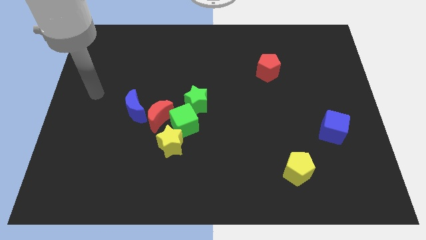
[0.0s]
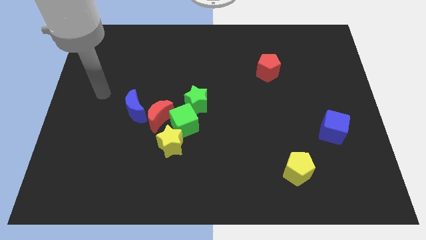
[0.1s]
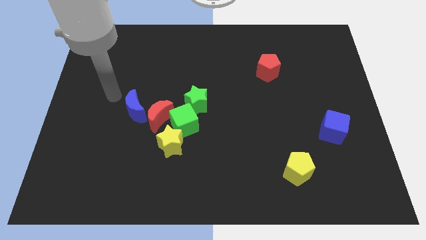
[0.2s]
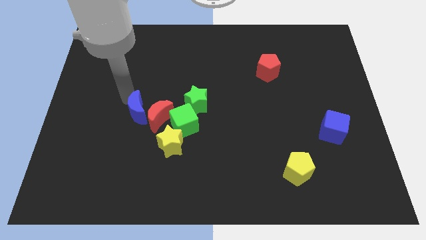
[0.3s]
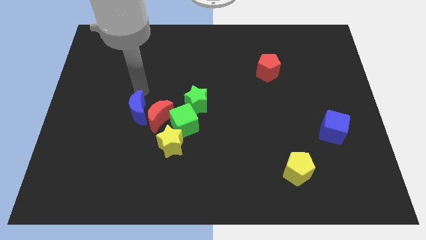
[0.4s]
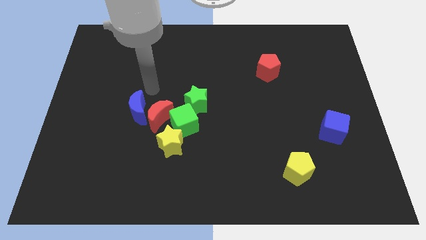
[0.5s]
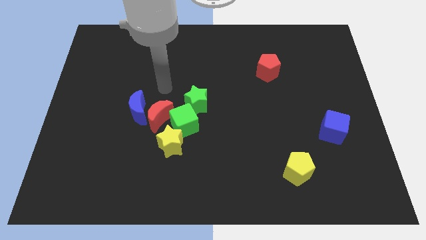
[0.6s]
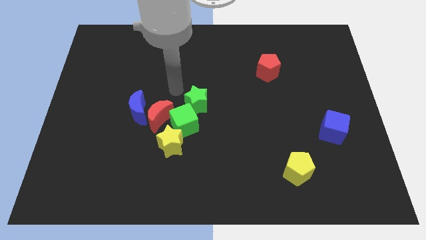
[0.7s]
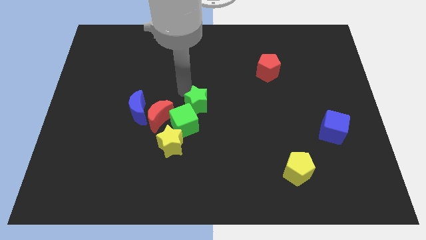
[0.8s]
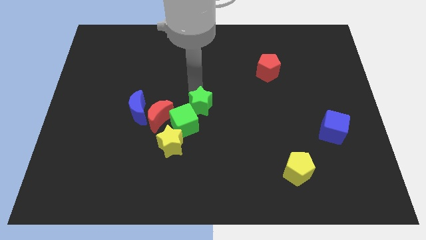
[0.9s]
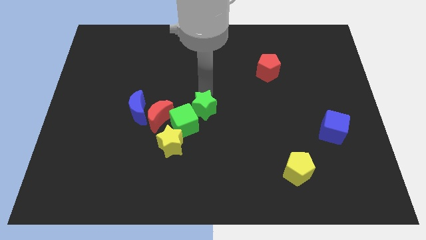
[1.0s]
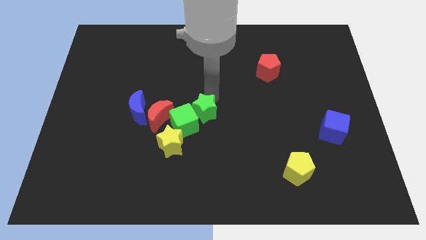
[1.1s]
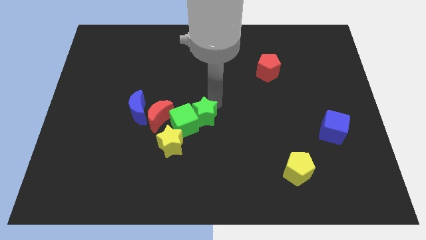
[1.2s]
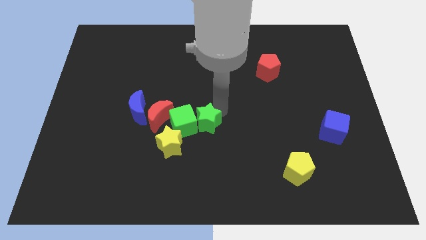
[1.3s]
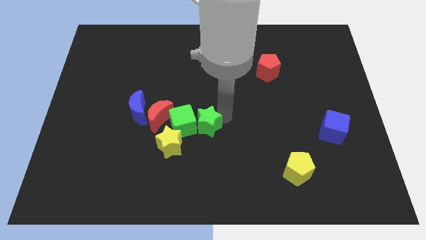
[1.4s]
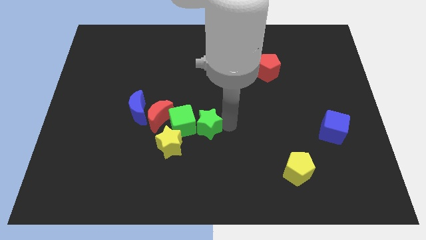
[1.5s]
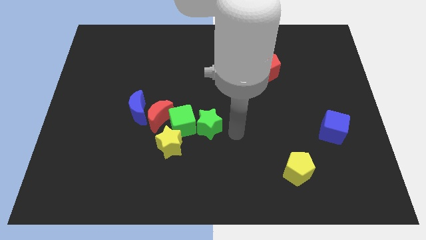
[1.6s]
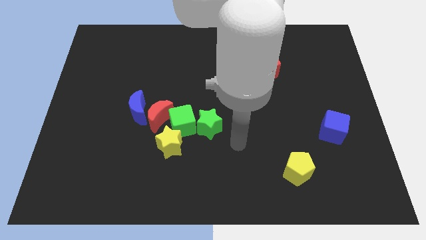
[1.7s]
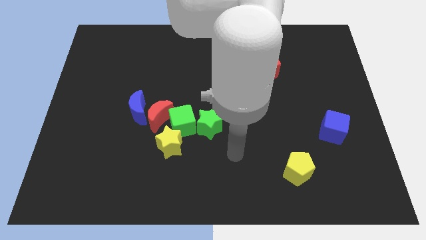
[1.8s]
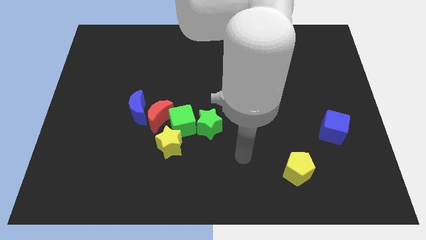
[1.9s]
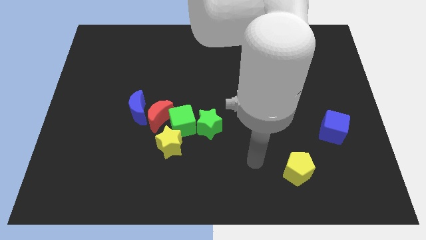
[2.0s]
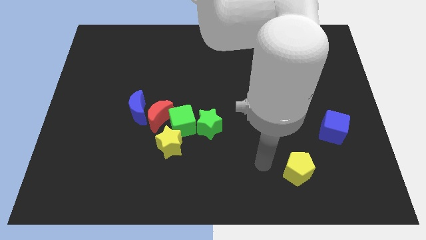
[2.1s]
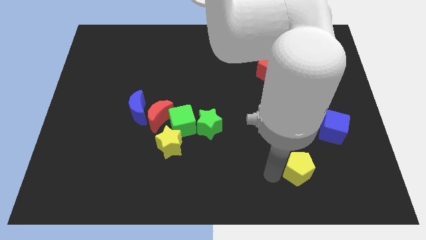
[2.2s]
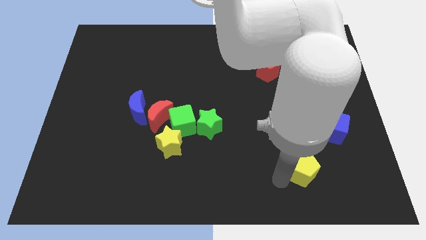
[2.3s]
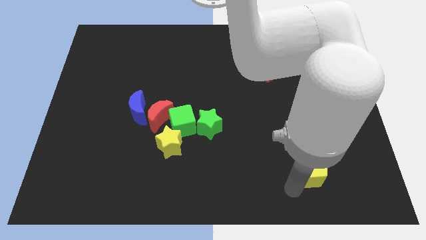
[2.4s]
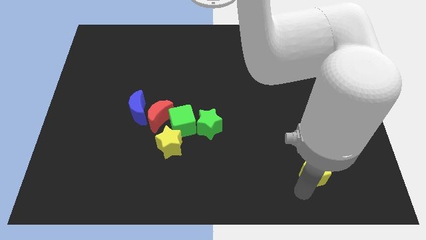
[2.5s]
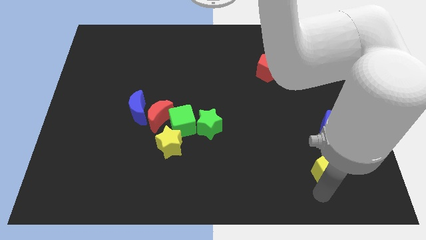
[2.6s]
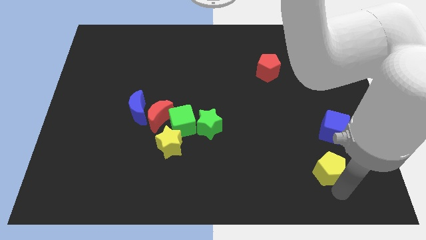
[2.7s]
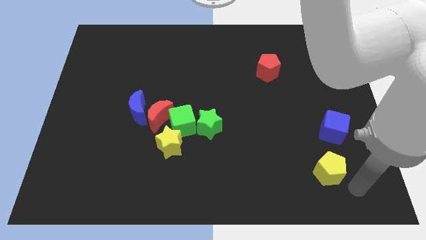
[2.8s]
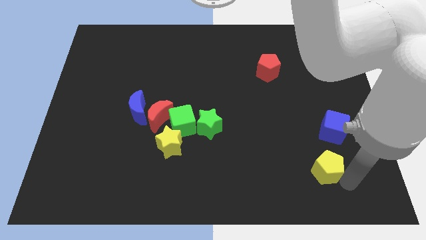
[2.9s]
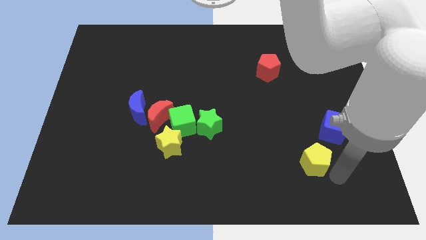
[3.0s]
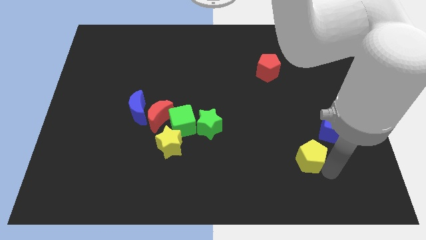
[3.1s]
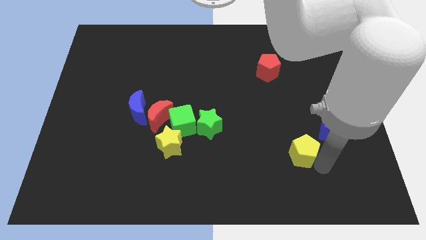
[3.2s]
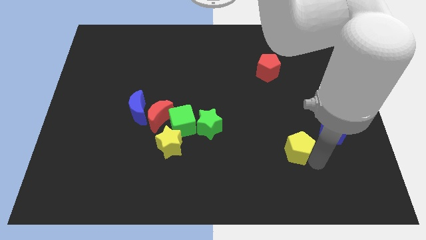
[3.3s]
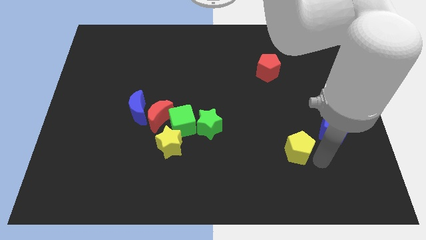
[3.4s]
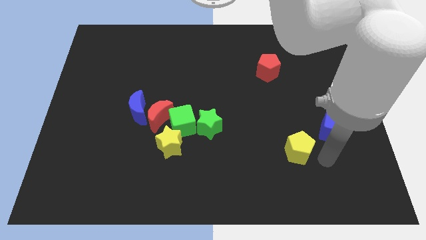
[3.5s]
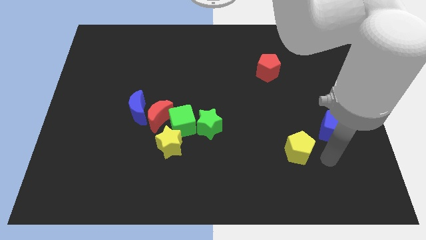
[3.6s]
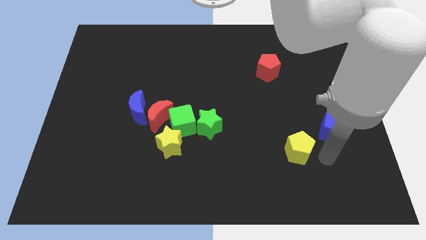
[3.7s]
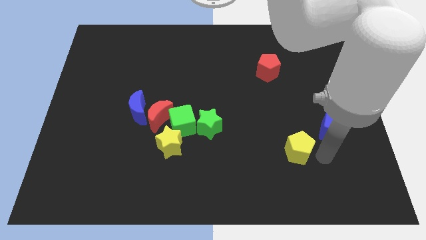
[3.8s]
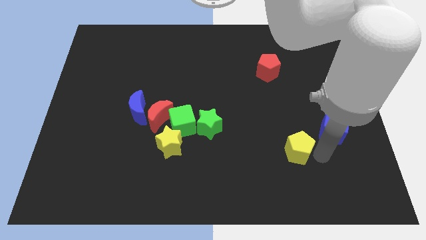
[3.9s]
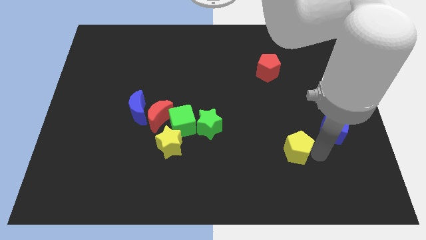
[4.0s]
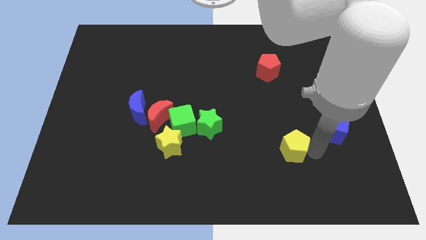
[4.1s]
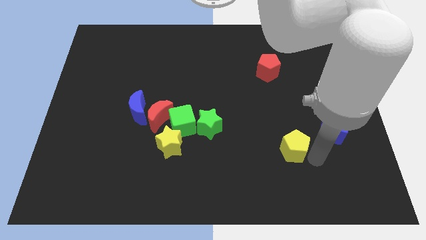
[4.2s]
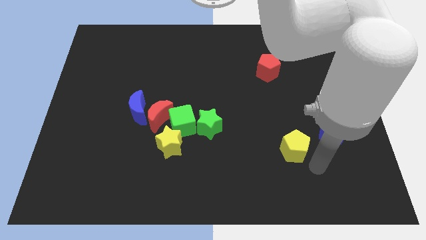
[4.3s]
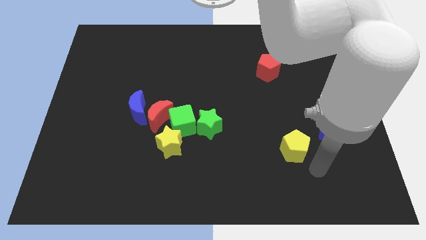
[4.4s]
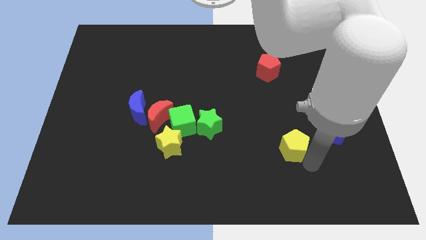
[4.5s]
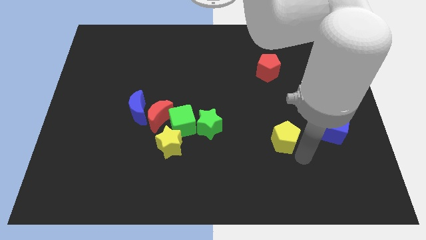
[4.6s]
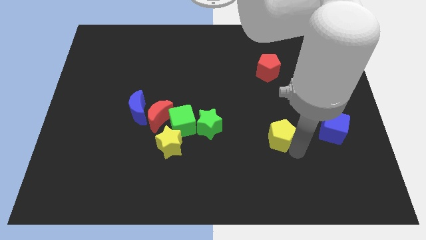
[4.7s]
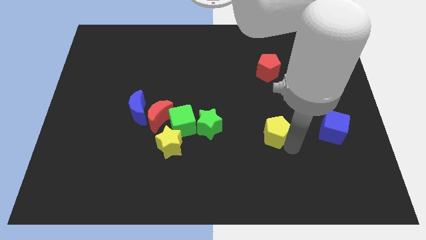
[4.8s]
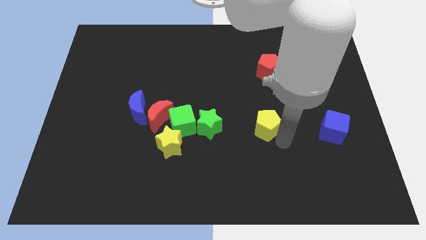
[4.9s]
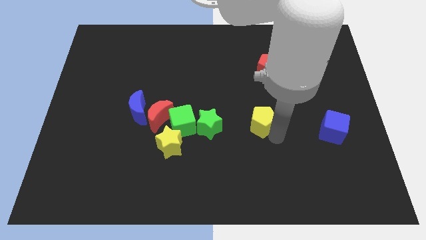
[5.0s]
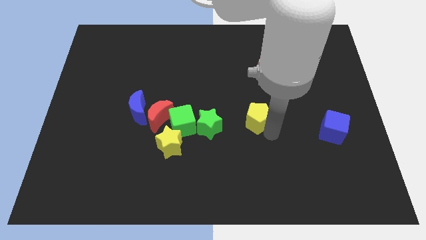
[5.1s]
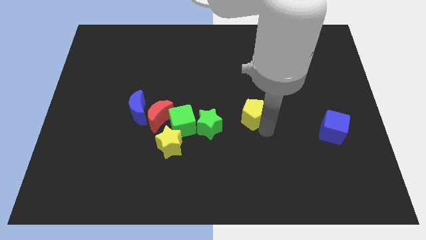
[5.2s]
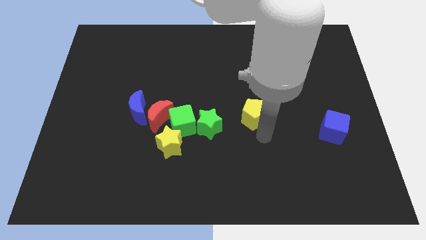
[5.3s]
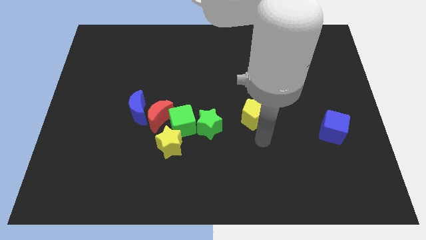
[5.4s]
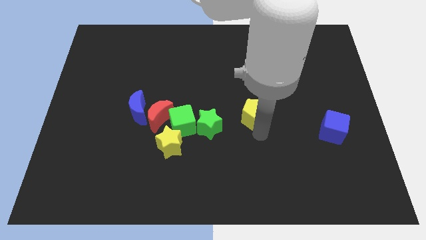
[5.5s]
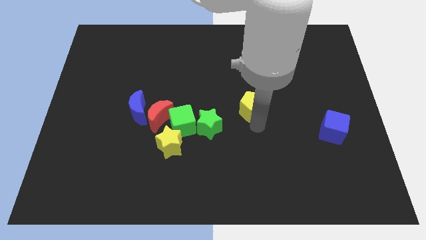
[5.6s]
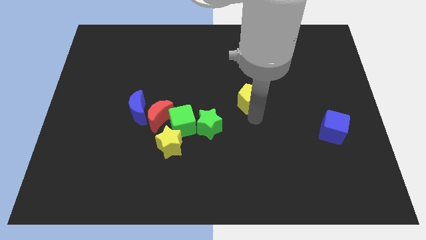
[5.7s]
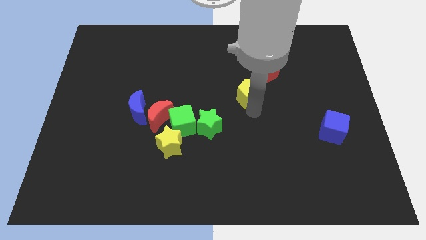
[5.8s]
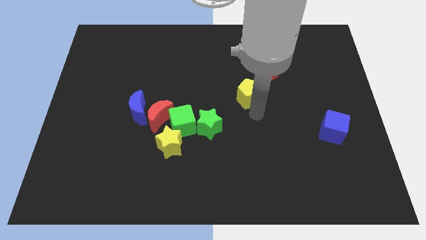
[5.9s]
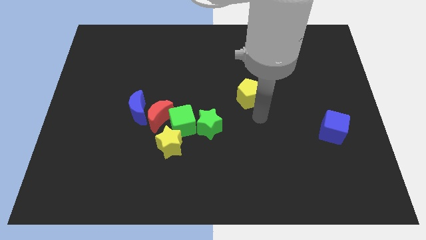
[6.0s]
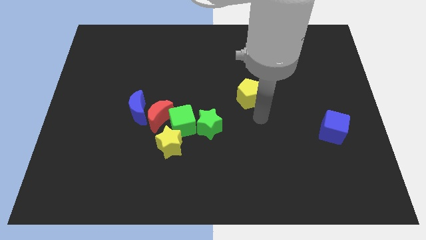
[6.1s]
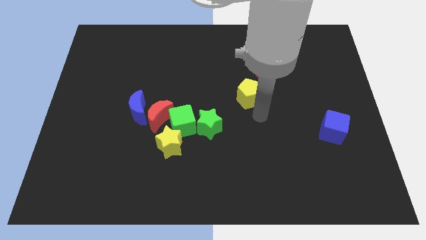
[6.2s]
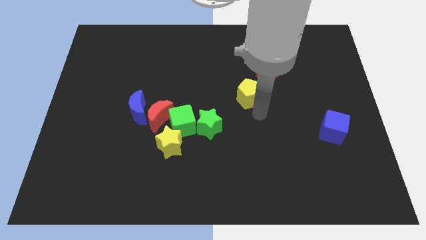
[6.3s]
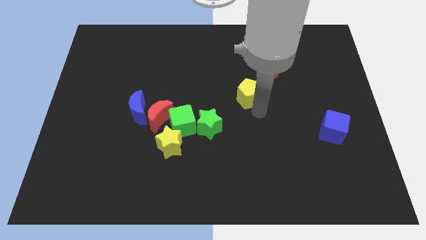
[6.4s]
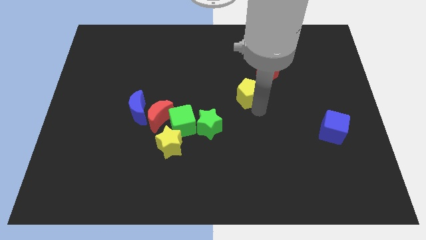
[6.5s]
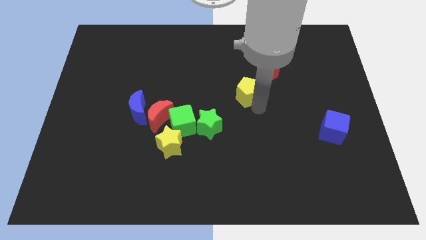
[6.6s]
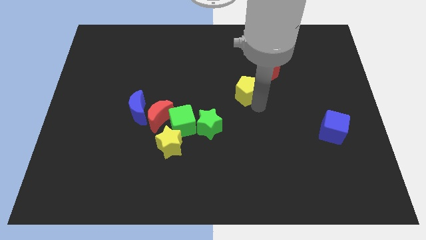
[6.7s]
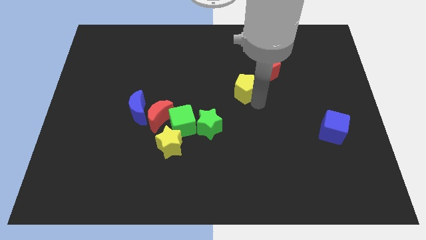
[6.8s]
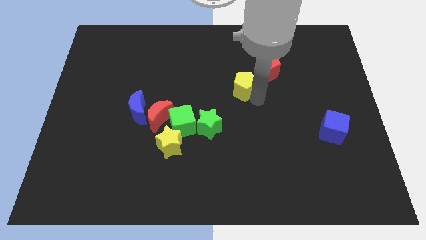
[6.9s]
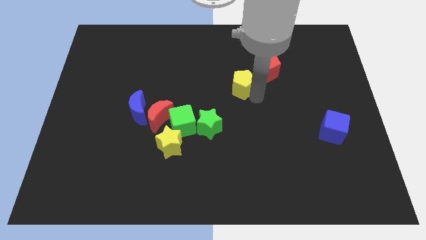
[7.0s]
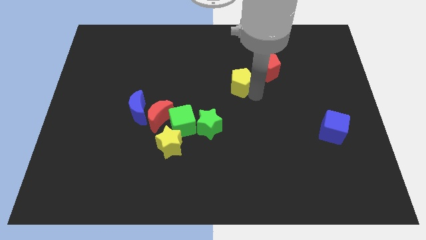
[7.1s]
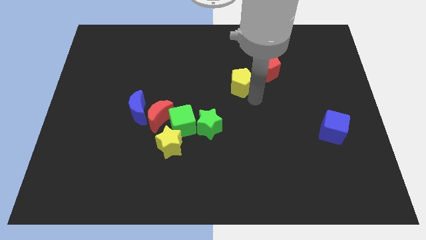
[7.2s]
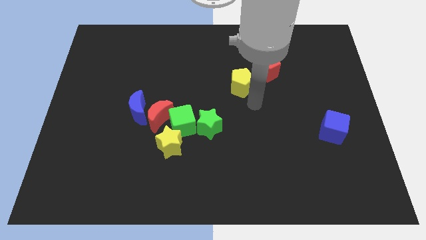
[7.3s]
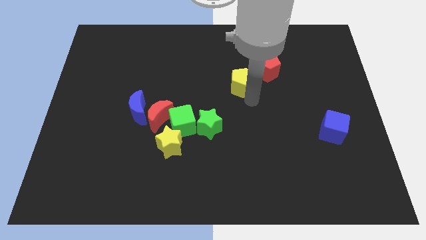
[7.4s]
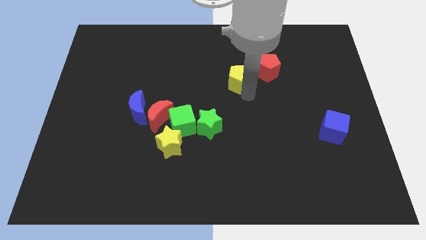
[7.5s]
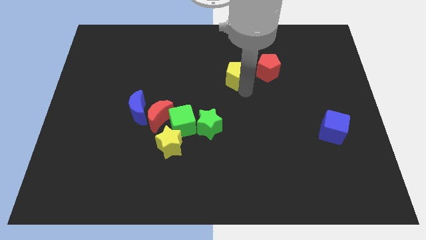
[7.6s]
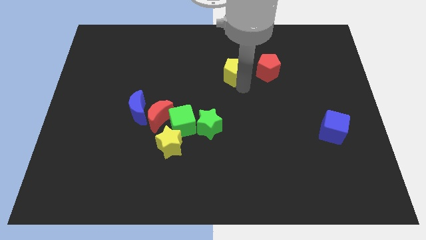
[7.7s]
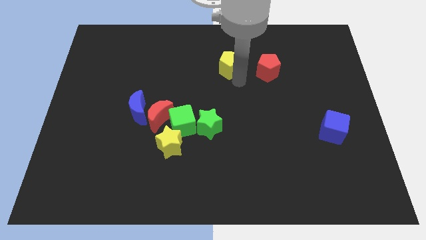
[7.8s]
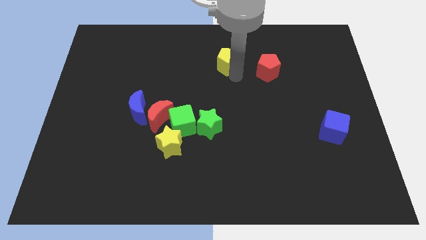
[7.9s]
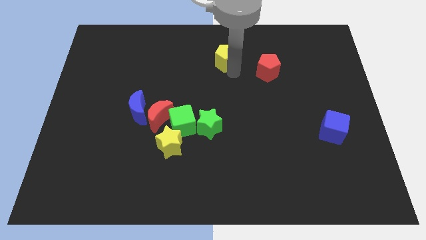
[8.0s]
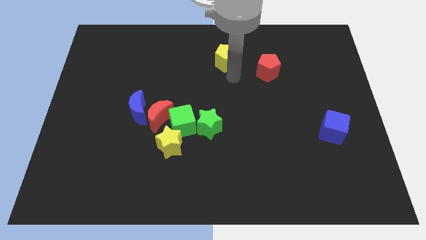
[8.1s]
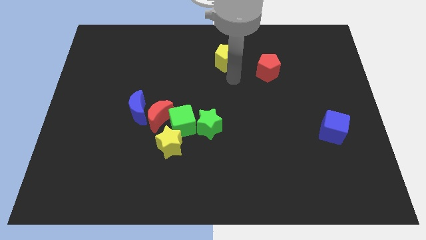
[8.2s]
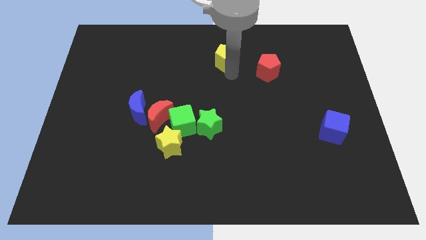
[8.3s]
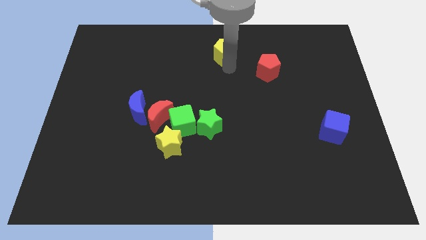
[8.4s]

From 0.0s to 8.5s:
push the yellow pentagon to the towards your base
